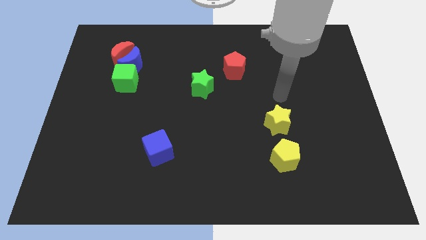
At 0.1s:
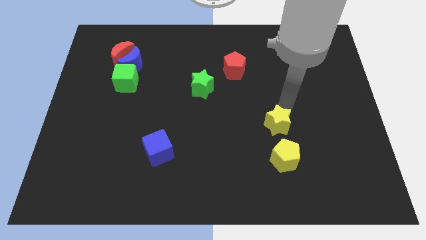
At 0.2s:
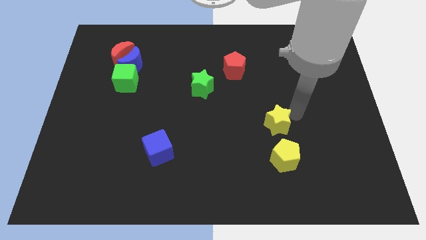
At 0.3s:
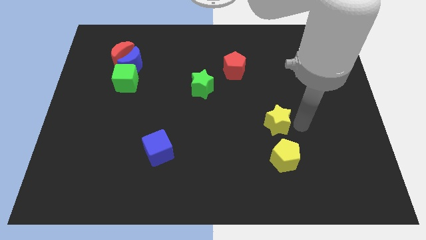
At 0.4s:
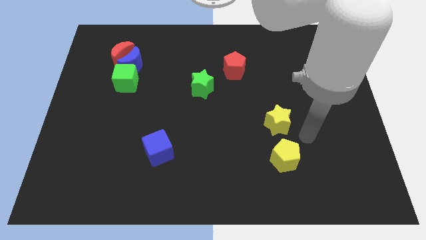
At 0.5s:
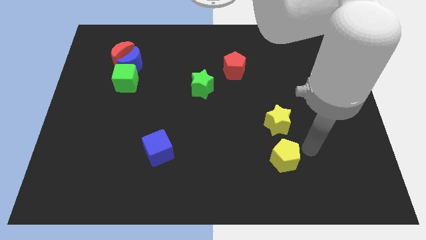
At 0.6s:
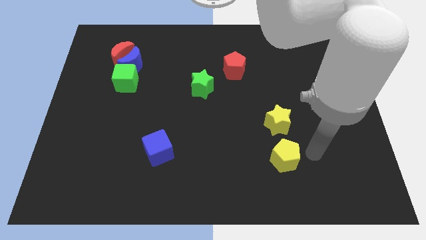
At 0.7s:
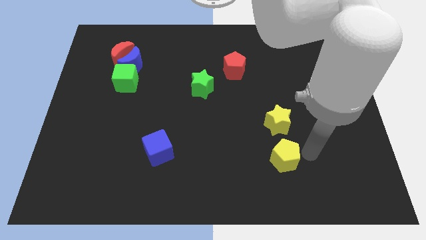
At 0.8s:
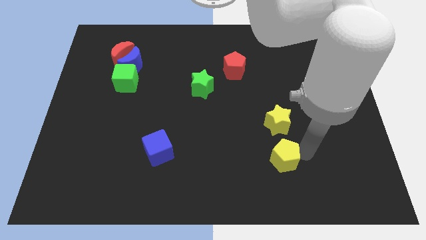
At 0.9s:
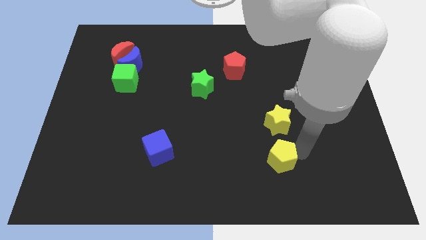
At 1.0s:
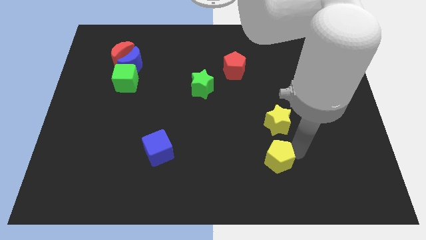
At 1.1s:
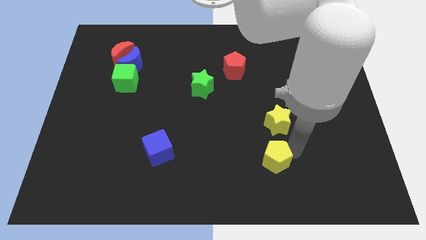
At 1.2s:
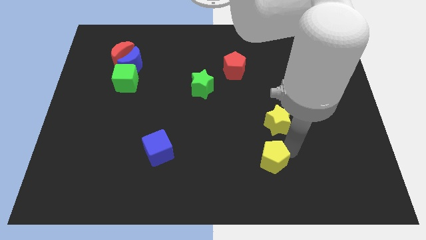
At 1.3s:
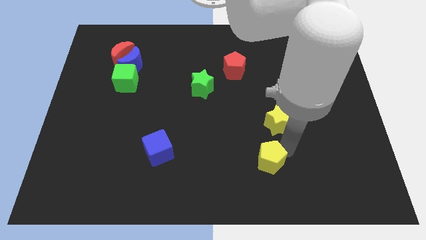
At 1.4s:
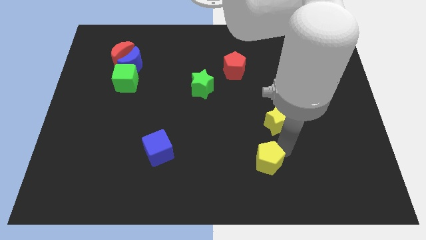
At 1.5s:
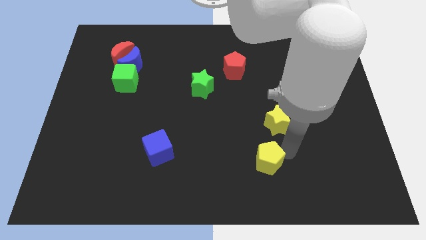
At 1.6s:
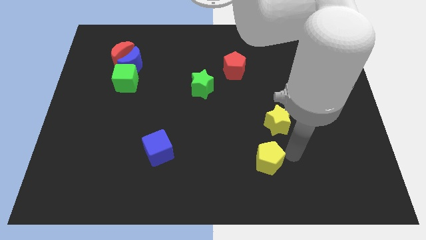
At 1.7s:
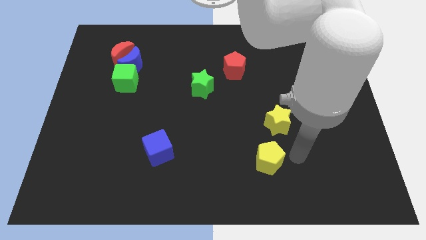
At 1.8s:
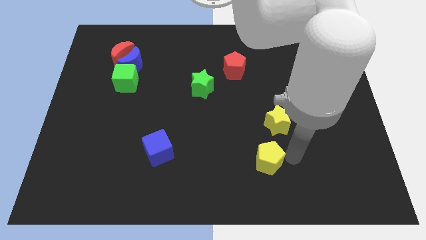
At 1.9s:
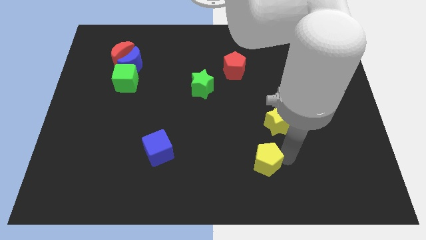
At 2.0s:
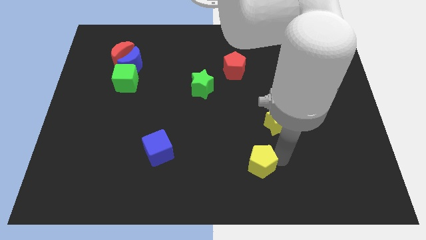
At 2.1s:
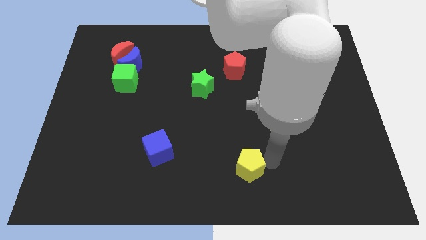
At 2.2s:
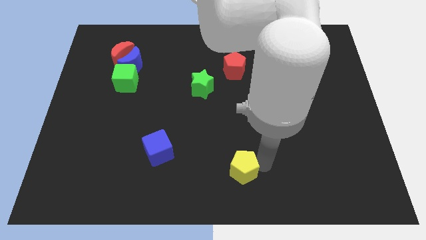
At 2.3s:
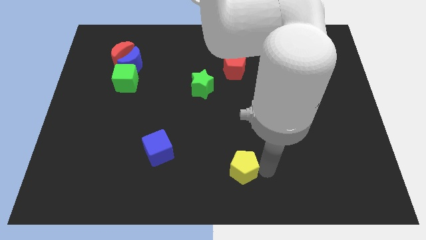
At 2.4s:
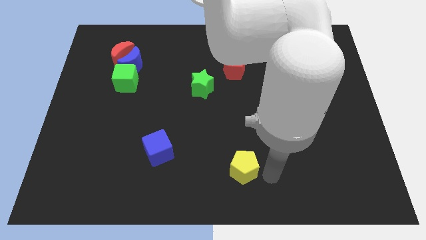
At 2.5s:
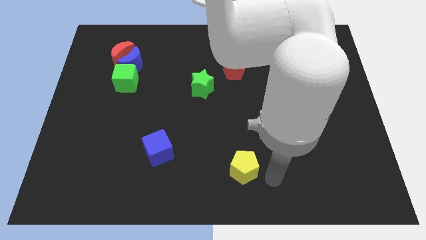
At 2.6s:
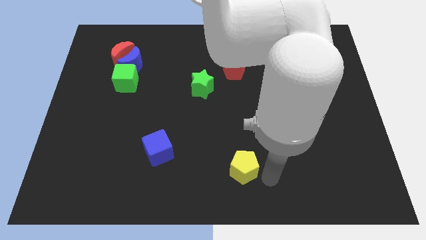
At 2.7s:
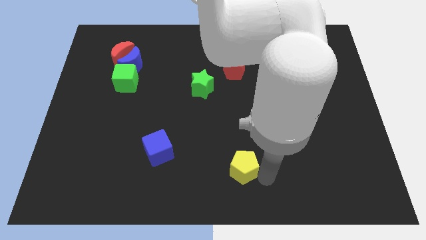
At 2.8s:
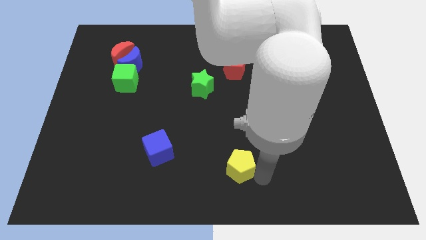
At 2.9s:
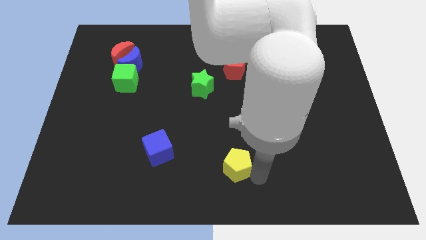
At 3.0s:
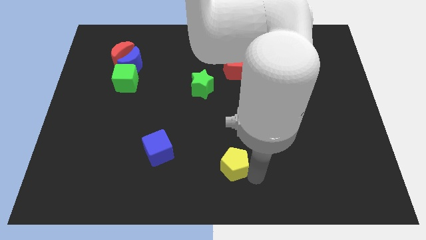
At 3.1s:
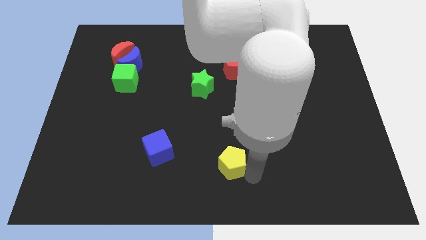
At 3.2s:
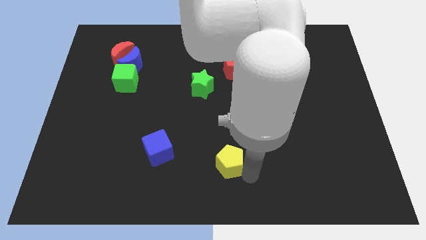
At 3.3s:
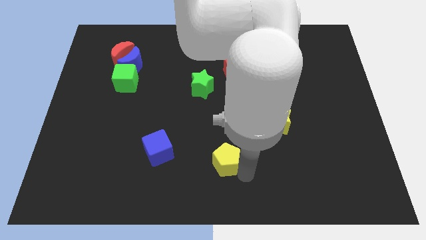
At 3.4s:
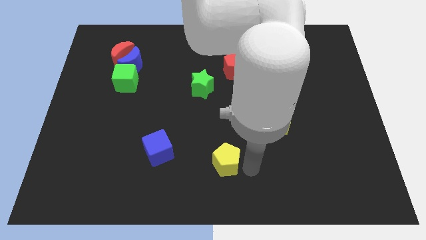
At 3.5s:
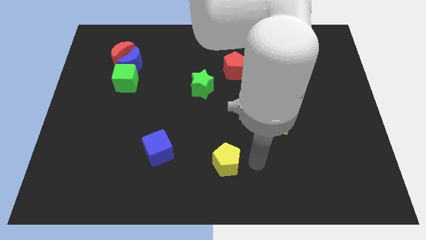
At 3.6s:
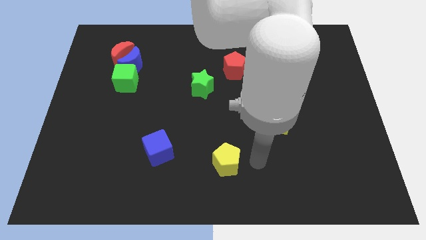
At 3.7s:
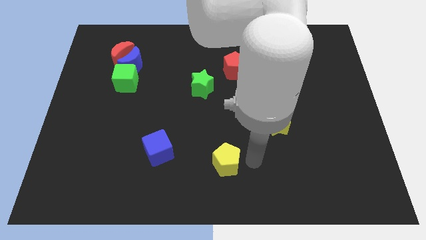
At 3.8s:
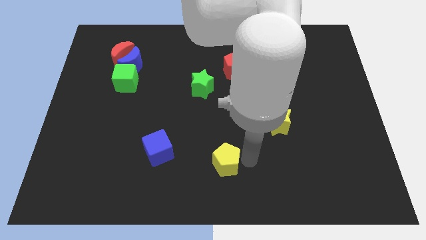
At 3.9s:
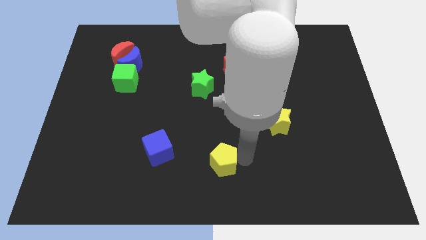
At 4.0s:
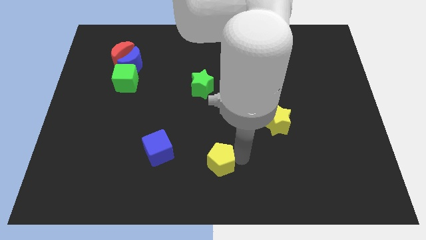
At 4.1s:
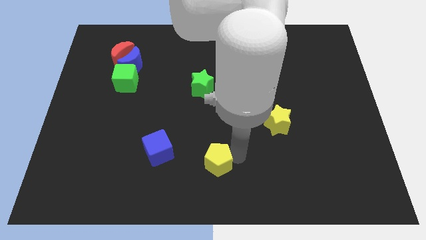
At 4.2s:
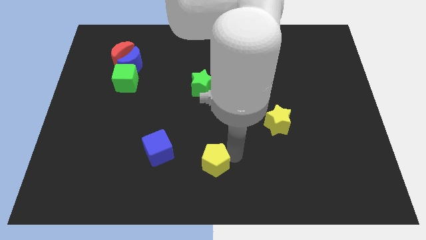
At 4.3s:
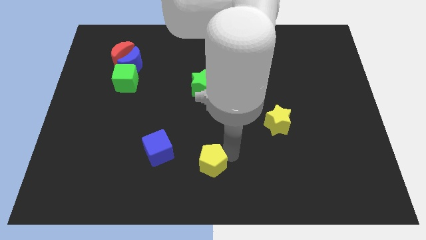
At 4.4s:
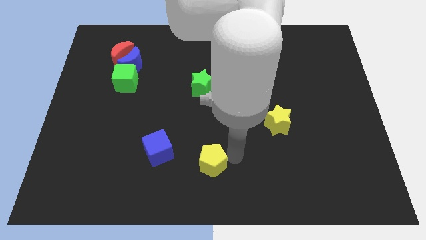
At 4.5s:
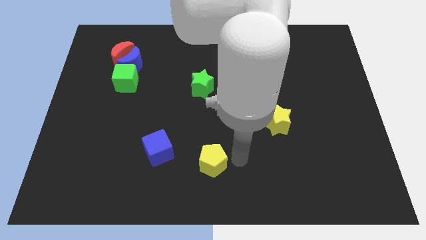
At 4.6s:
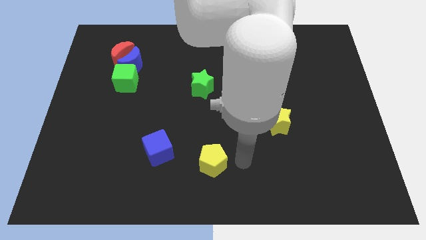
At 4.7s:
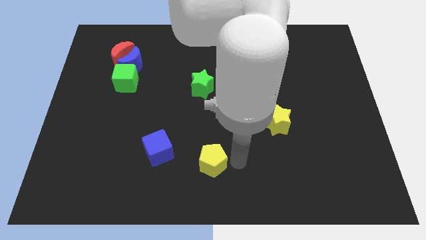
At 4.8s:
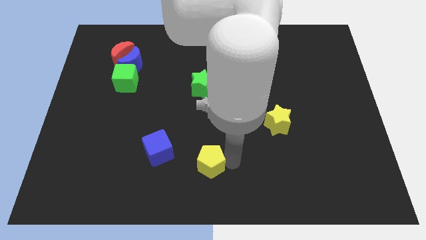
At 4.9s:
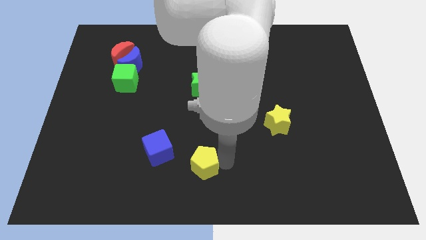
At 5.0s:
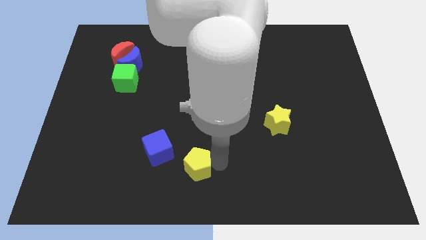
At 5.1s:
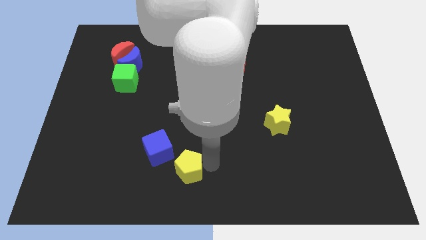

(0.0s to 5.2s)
move the yellow pentagon to the left

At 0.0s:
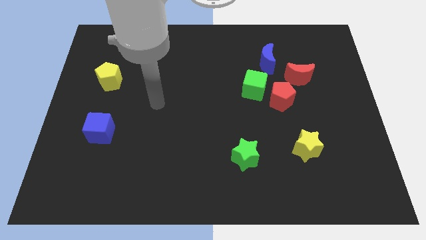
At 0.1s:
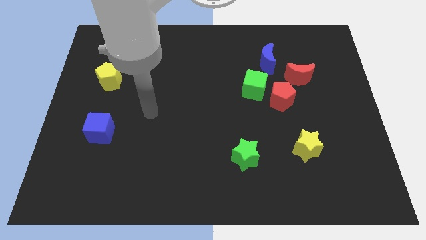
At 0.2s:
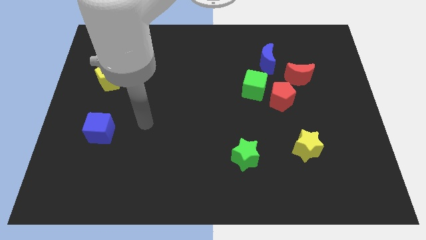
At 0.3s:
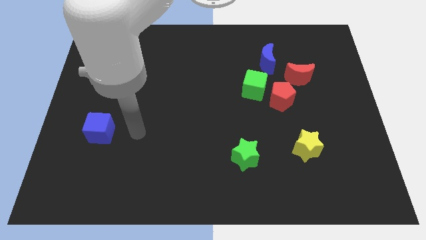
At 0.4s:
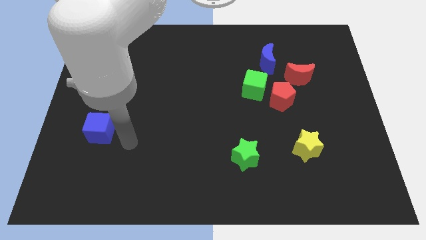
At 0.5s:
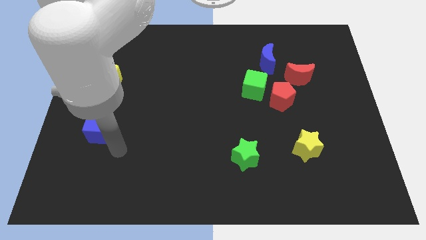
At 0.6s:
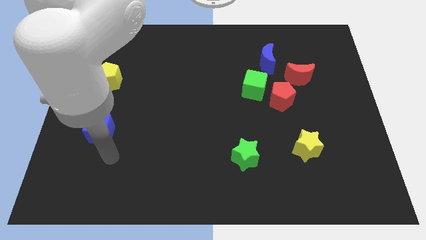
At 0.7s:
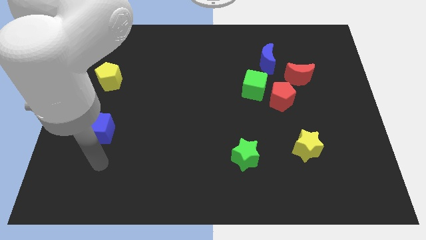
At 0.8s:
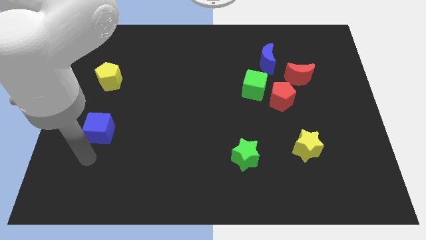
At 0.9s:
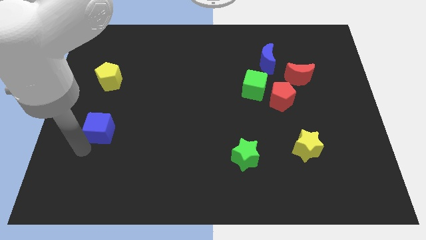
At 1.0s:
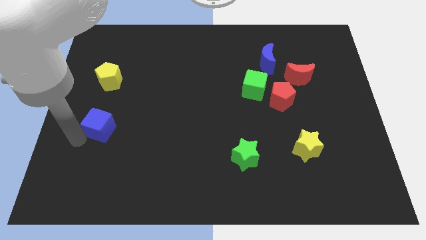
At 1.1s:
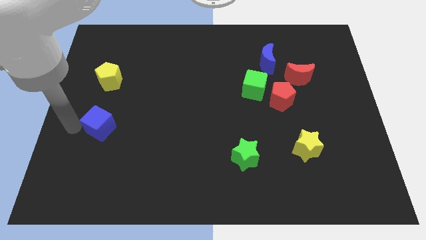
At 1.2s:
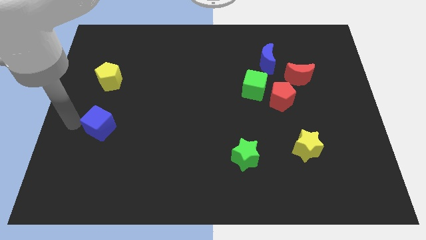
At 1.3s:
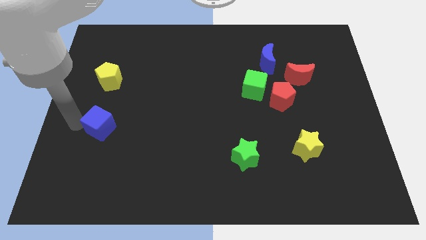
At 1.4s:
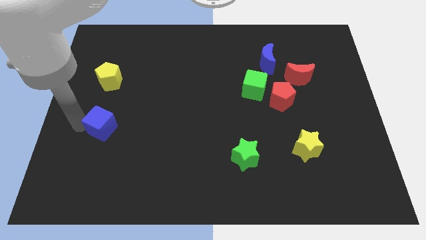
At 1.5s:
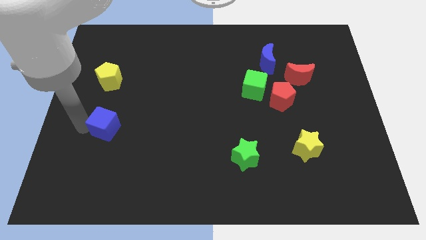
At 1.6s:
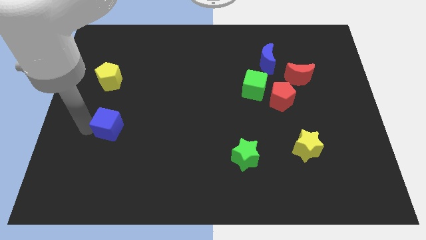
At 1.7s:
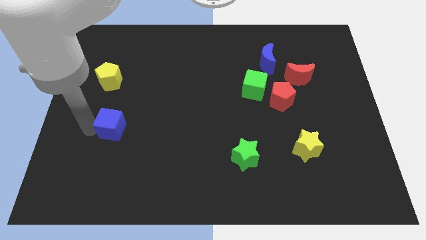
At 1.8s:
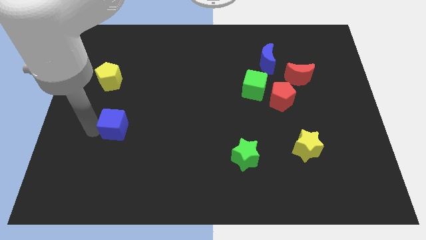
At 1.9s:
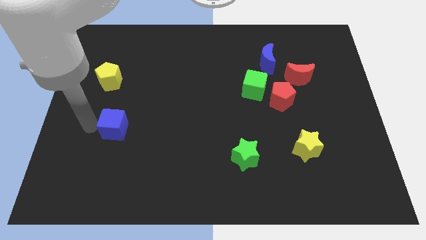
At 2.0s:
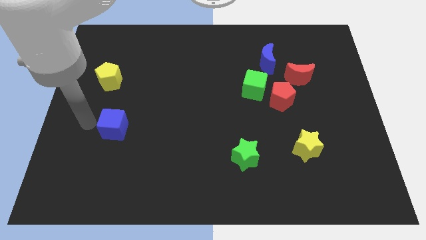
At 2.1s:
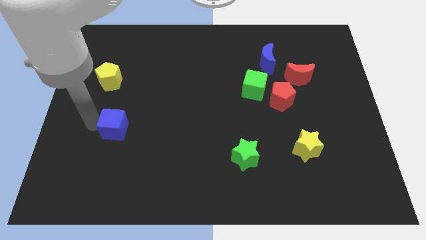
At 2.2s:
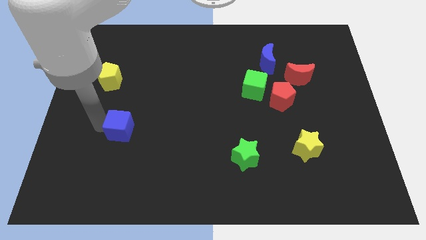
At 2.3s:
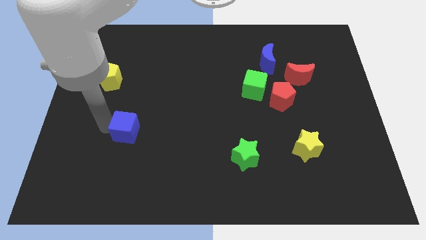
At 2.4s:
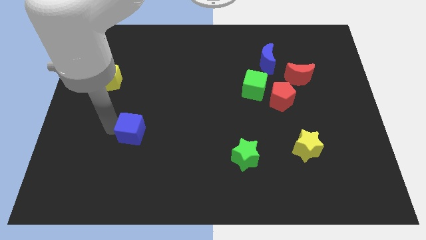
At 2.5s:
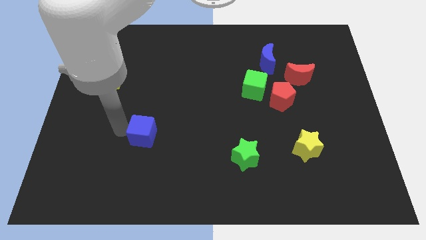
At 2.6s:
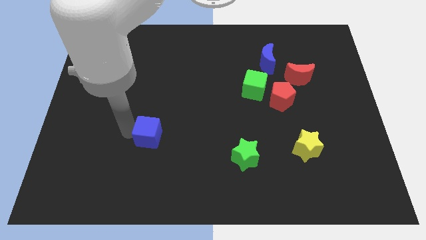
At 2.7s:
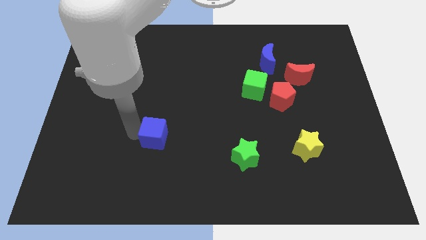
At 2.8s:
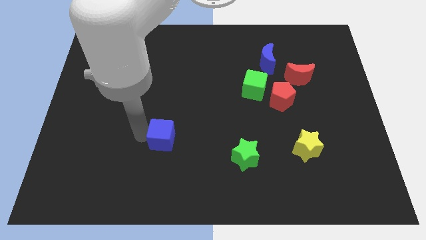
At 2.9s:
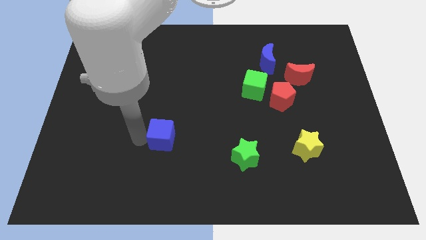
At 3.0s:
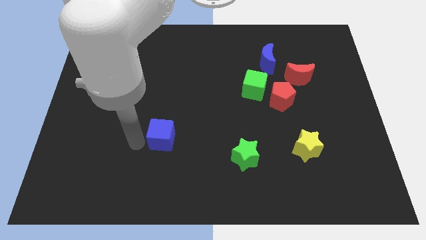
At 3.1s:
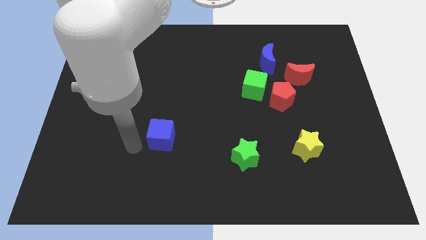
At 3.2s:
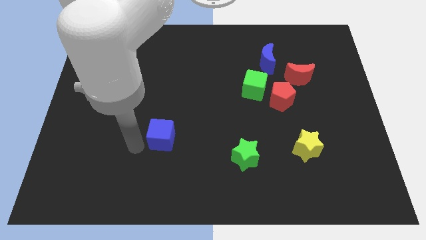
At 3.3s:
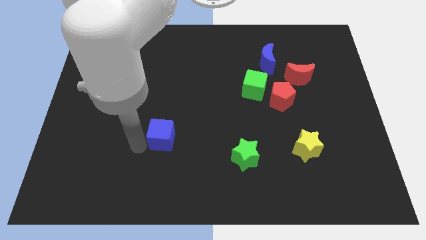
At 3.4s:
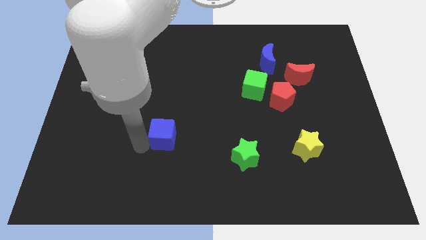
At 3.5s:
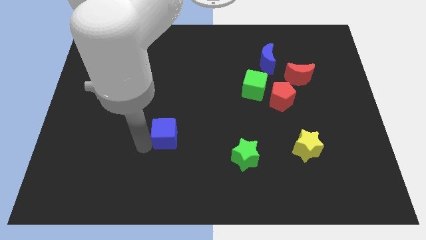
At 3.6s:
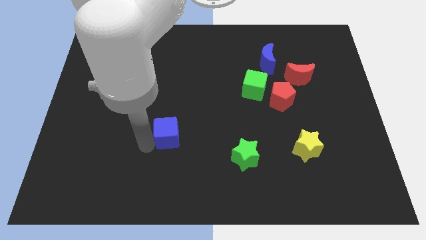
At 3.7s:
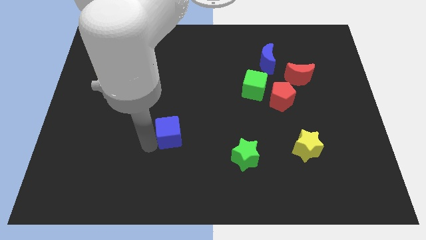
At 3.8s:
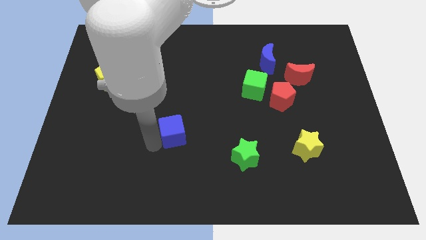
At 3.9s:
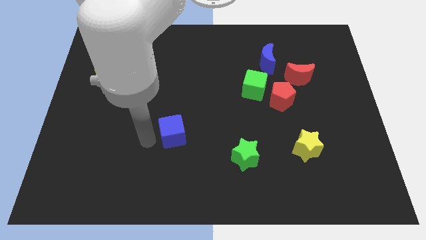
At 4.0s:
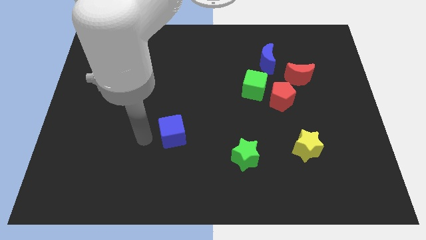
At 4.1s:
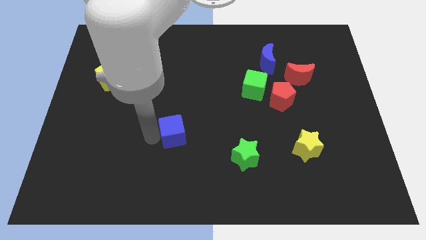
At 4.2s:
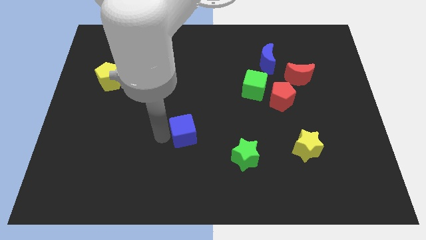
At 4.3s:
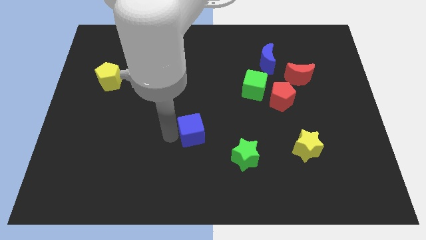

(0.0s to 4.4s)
push the blue cube right
